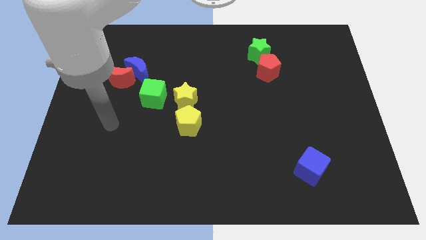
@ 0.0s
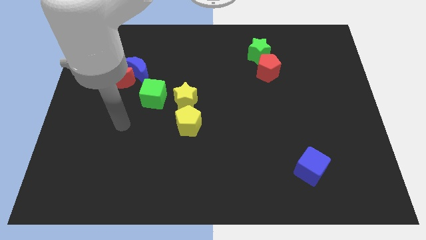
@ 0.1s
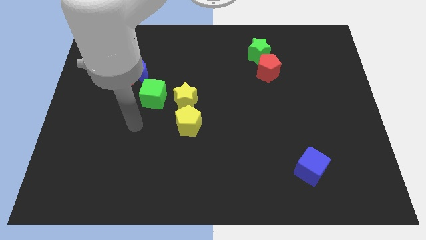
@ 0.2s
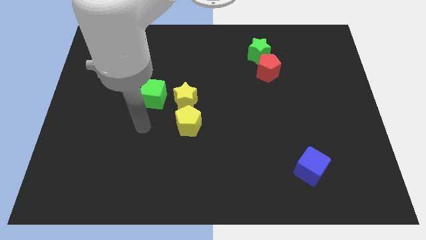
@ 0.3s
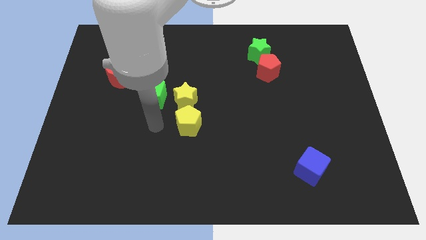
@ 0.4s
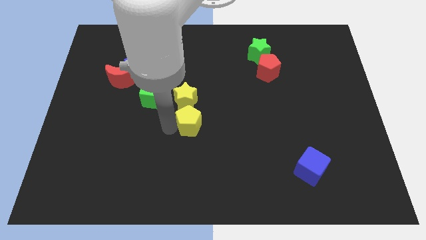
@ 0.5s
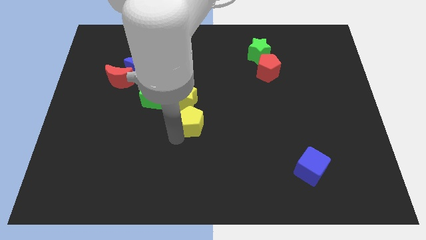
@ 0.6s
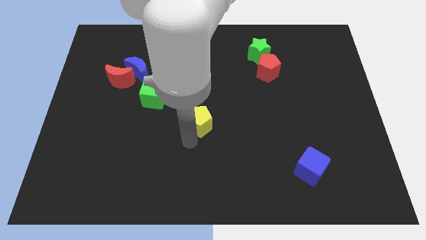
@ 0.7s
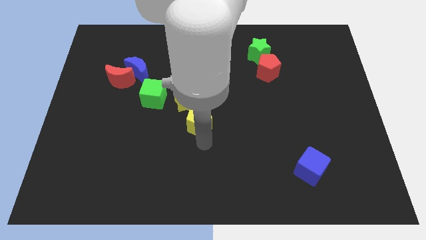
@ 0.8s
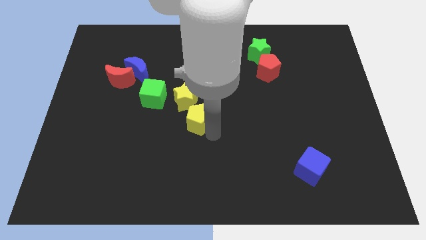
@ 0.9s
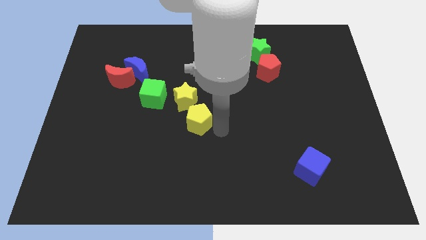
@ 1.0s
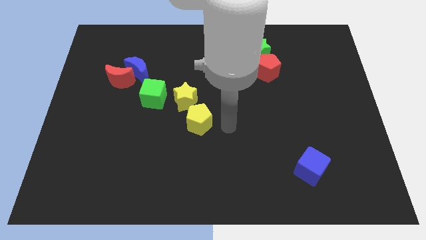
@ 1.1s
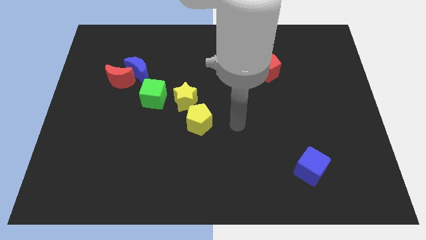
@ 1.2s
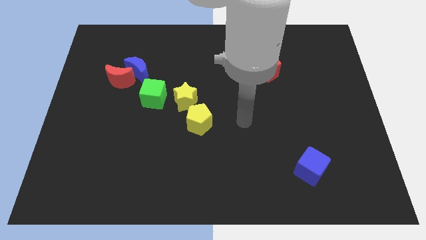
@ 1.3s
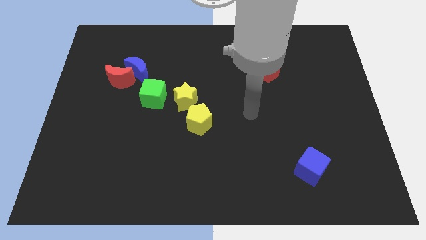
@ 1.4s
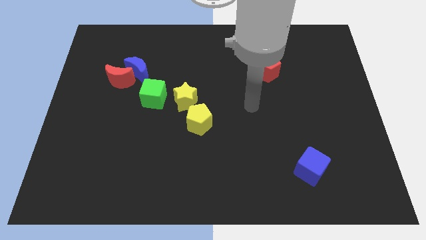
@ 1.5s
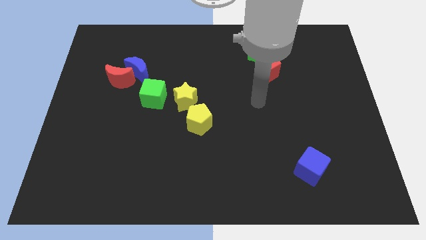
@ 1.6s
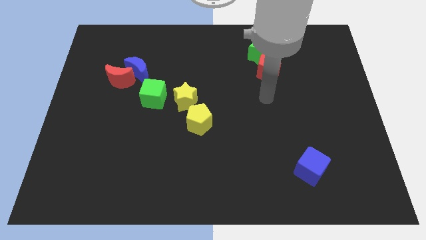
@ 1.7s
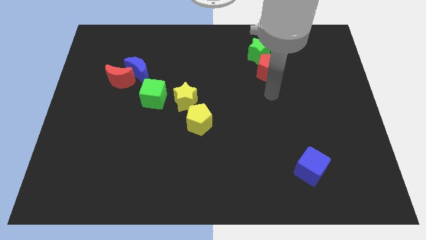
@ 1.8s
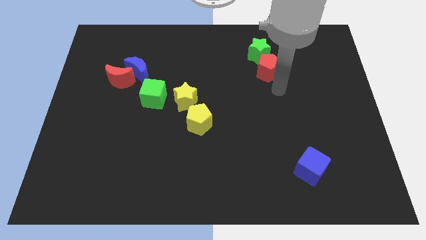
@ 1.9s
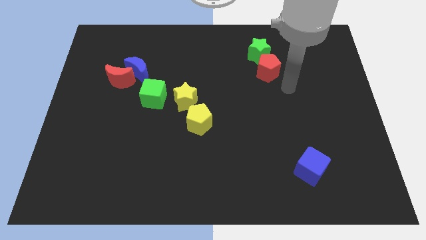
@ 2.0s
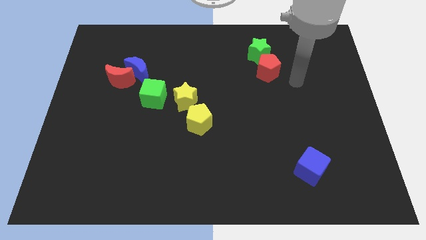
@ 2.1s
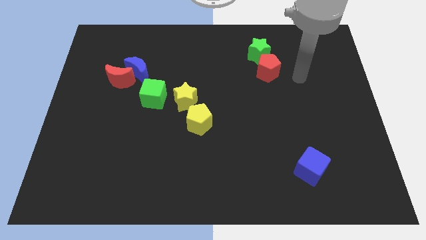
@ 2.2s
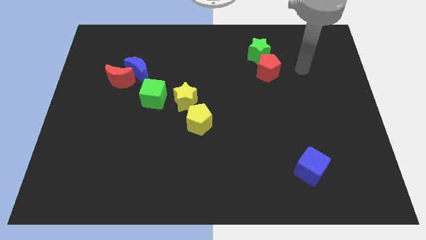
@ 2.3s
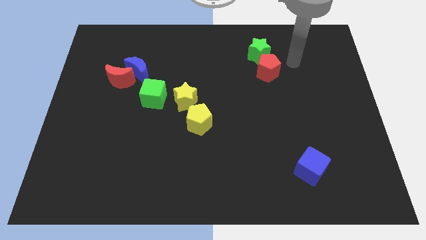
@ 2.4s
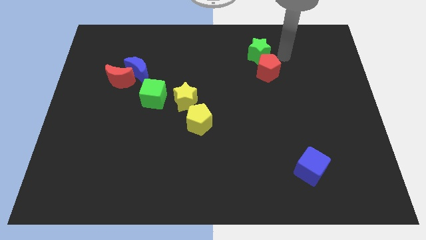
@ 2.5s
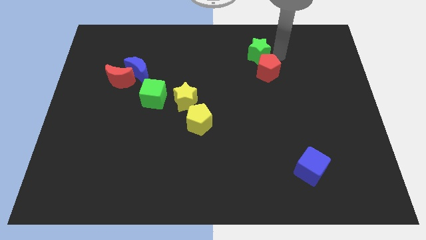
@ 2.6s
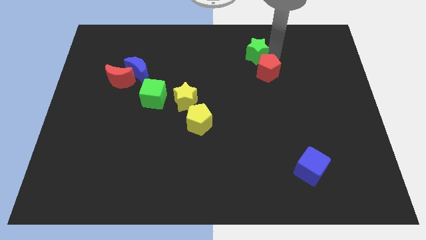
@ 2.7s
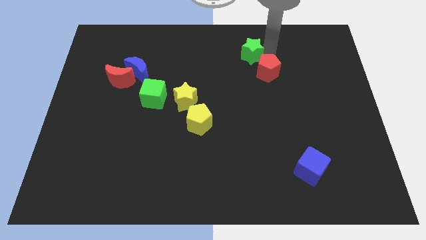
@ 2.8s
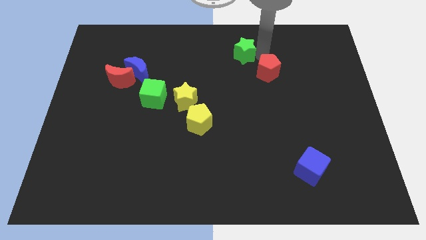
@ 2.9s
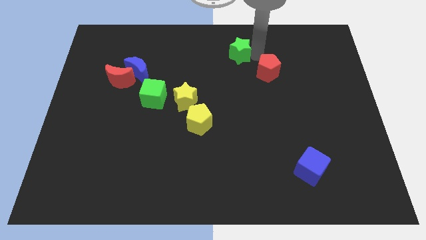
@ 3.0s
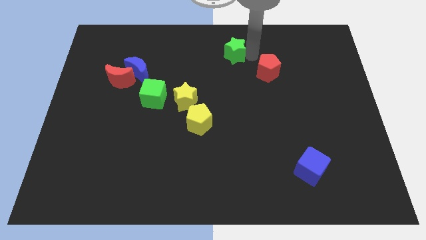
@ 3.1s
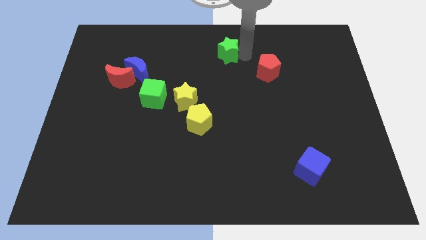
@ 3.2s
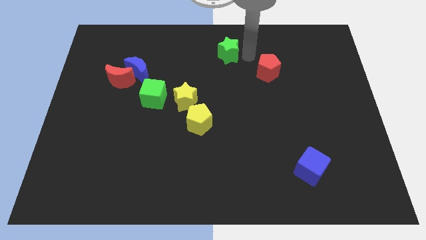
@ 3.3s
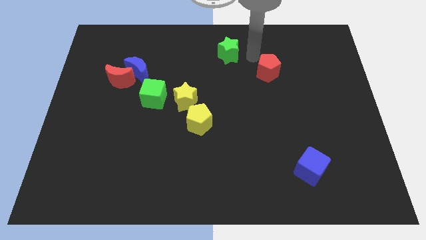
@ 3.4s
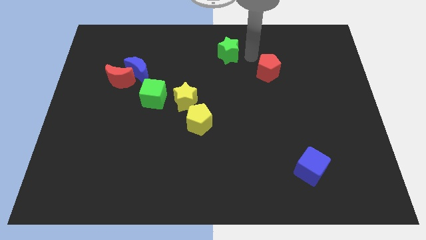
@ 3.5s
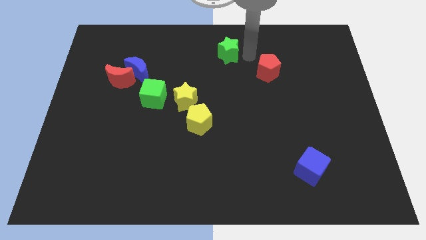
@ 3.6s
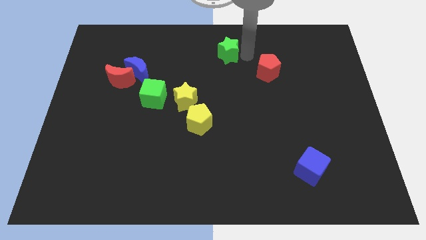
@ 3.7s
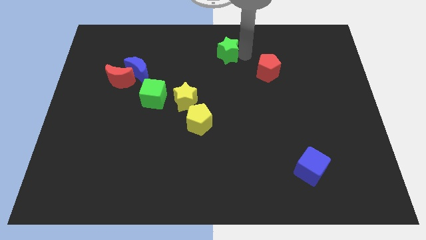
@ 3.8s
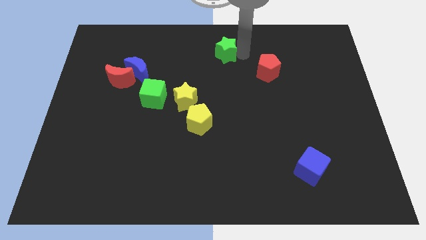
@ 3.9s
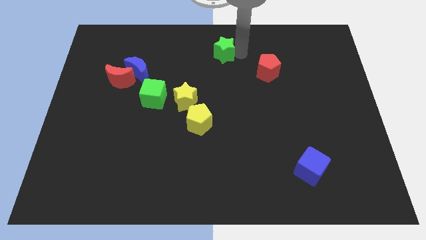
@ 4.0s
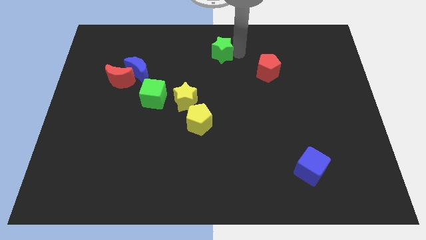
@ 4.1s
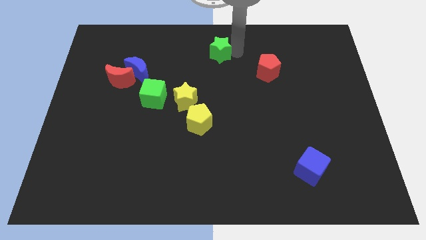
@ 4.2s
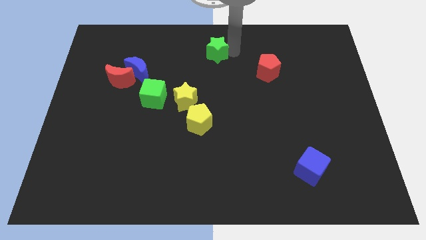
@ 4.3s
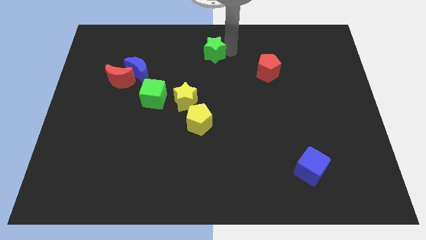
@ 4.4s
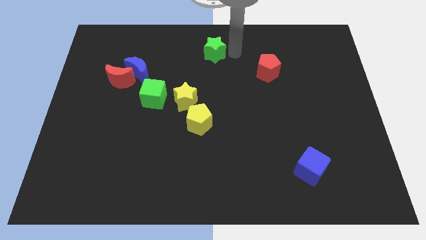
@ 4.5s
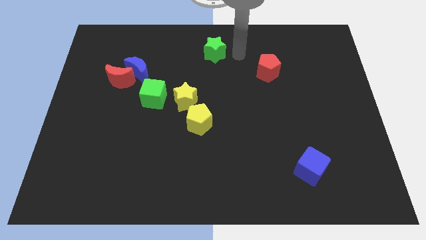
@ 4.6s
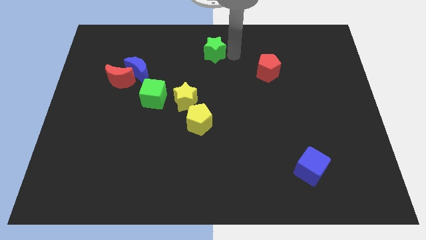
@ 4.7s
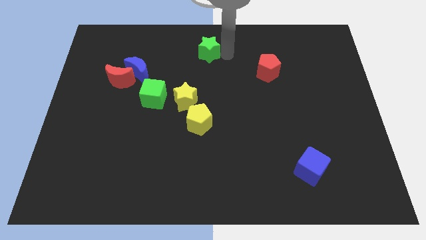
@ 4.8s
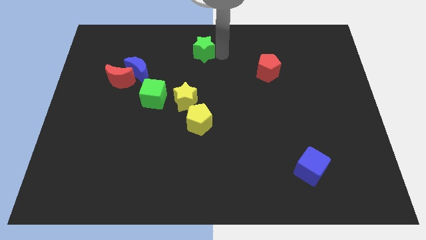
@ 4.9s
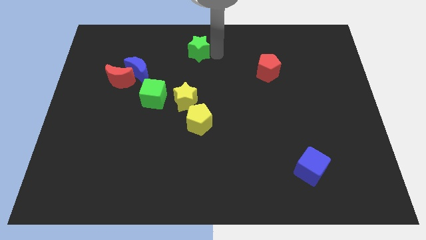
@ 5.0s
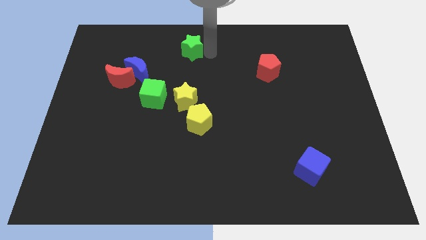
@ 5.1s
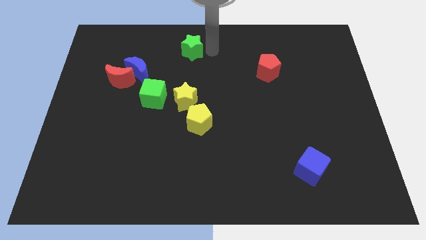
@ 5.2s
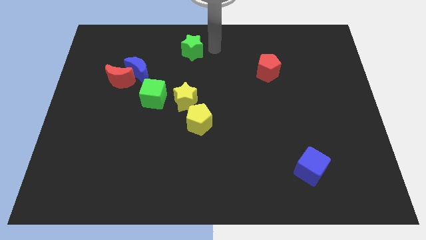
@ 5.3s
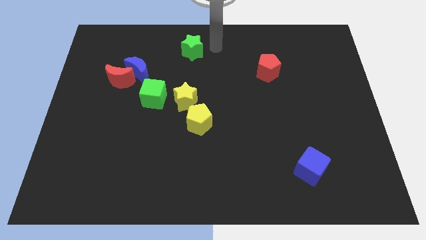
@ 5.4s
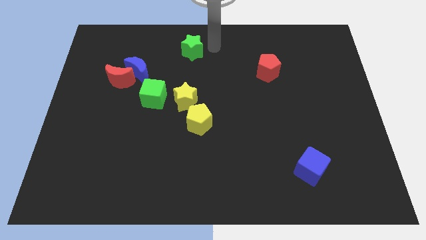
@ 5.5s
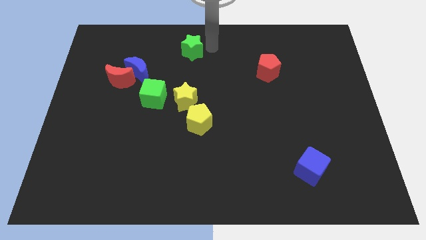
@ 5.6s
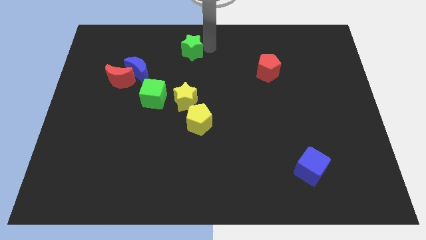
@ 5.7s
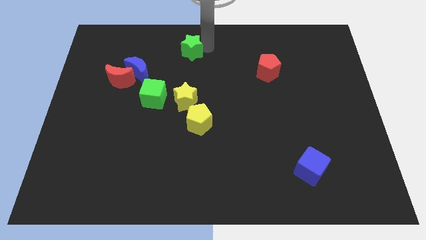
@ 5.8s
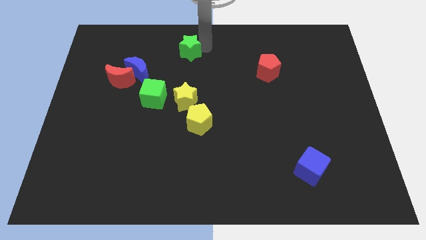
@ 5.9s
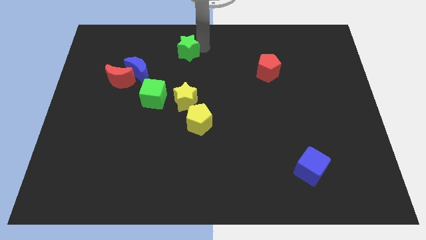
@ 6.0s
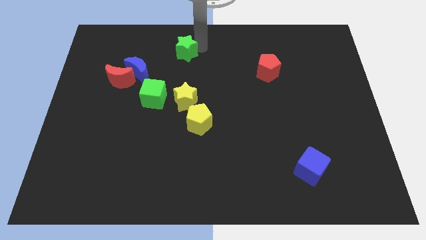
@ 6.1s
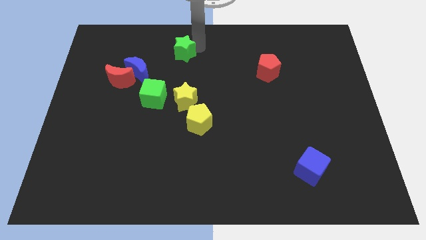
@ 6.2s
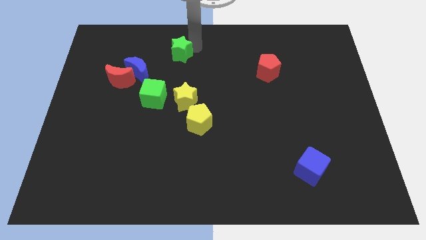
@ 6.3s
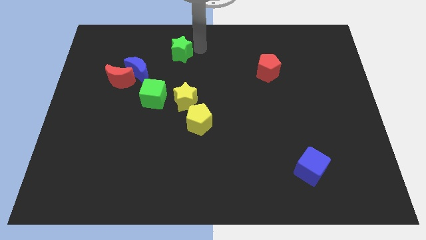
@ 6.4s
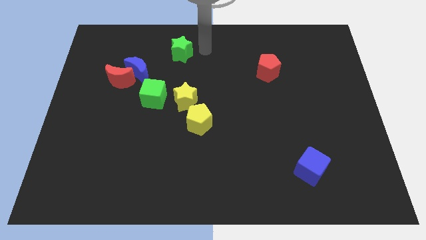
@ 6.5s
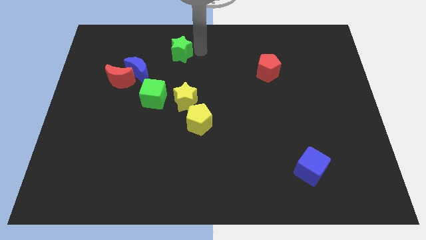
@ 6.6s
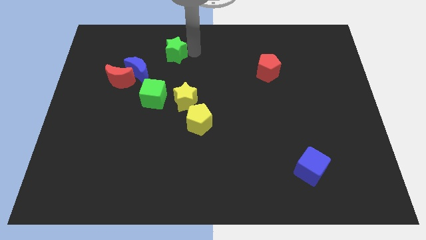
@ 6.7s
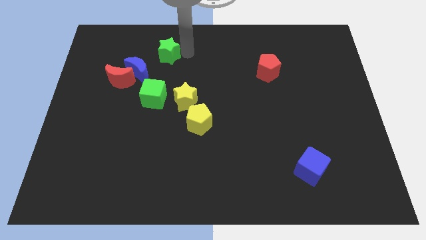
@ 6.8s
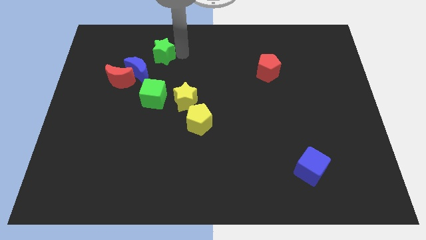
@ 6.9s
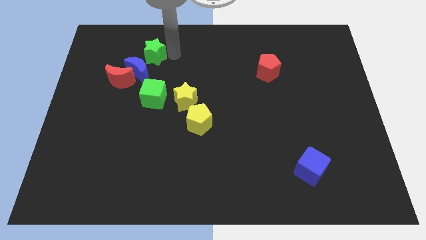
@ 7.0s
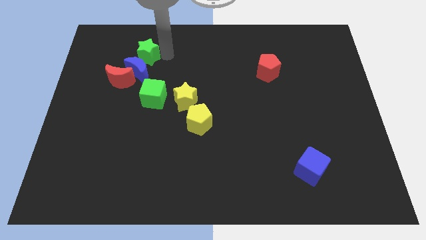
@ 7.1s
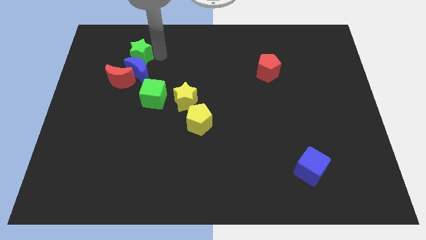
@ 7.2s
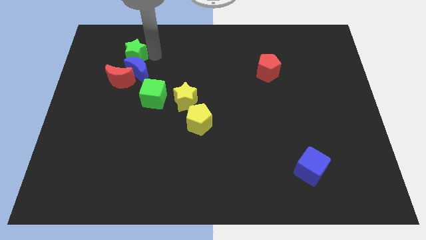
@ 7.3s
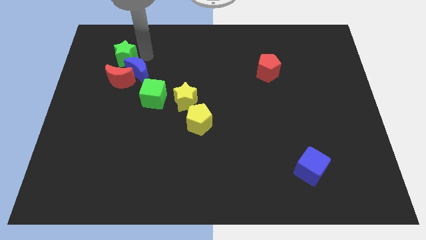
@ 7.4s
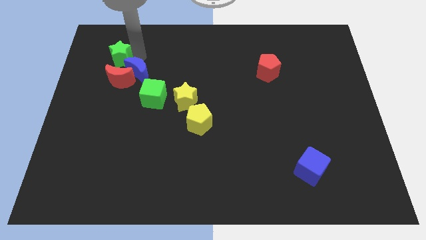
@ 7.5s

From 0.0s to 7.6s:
put the green star to the top left side of the red moon

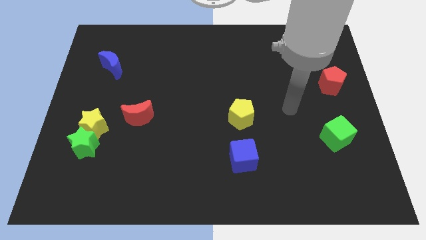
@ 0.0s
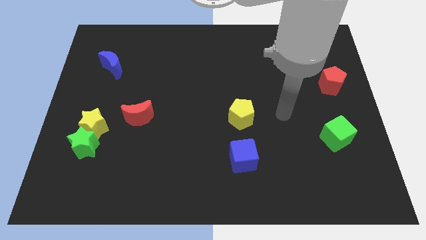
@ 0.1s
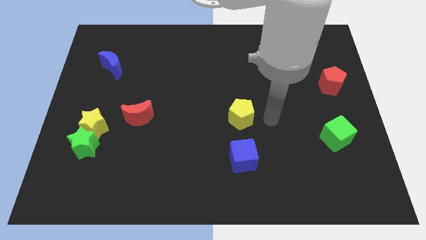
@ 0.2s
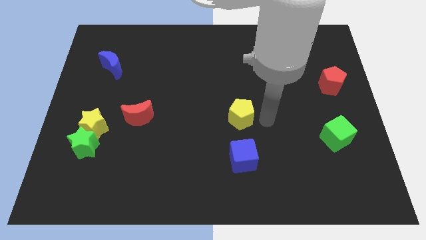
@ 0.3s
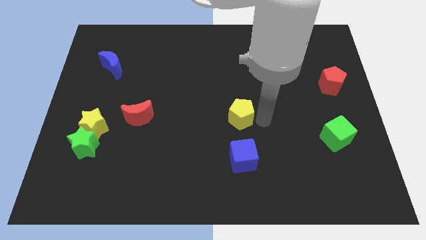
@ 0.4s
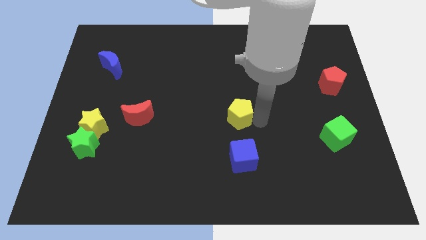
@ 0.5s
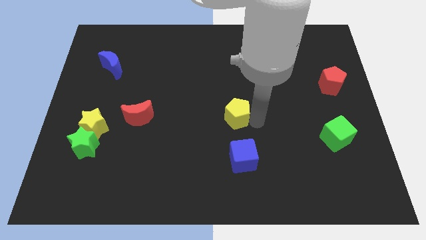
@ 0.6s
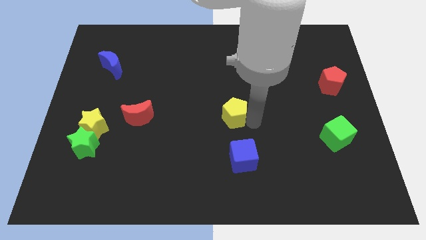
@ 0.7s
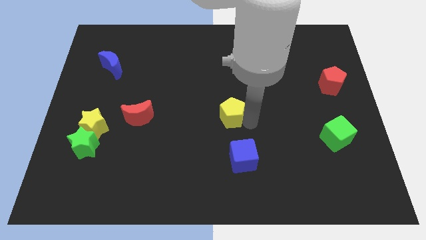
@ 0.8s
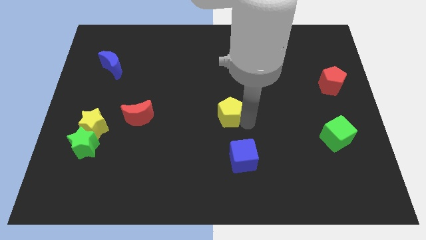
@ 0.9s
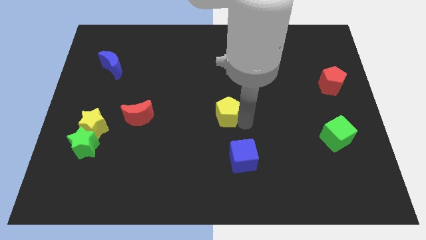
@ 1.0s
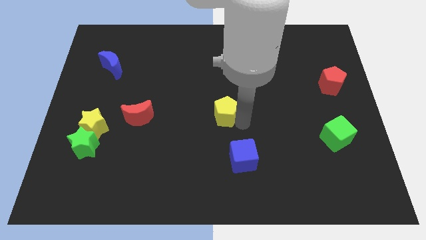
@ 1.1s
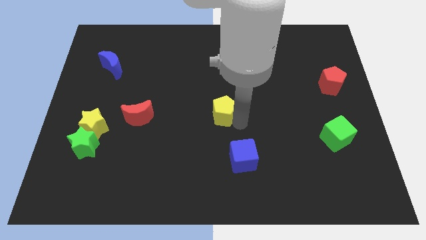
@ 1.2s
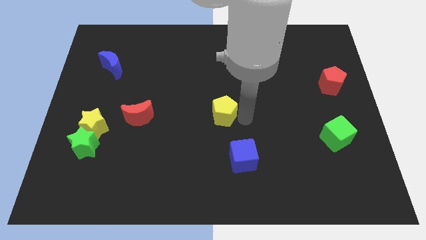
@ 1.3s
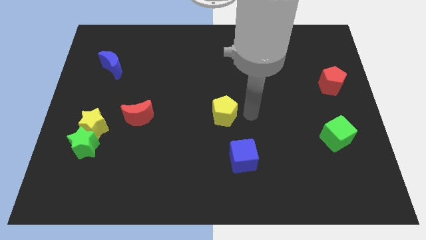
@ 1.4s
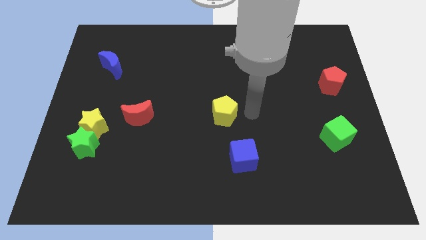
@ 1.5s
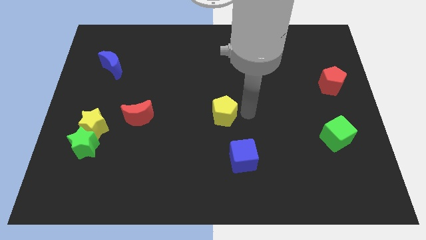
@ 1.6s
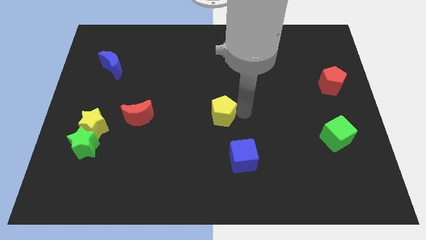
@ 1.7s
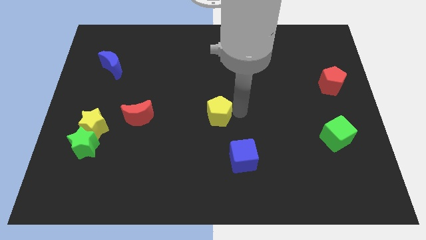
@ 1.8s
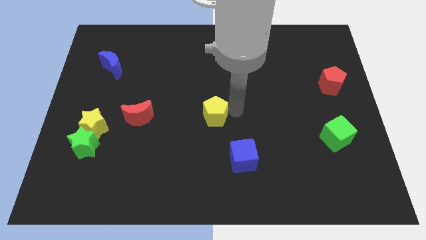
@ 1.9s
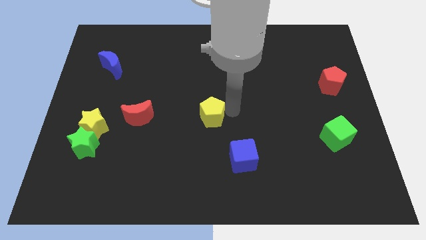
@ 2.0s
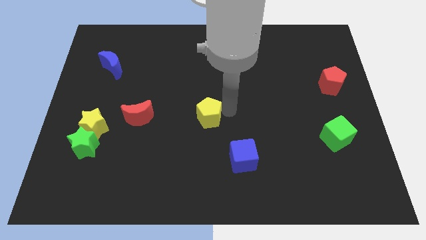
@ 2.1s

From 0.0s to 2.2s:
move the yellow pentagon to the right side of the red moon
